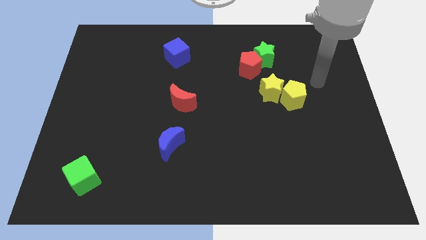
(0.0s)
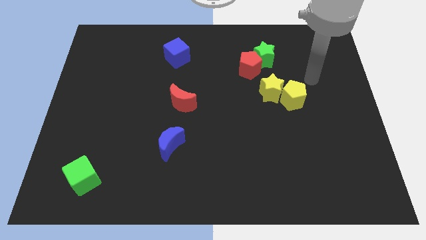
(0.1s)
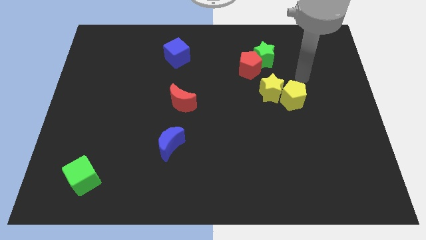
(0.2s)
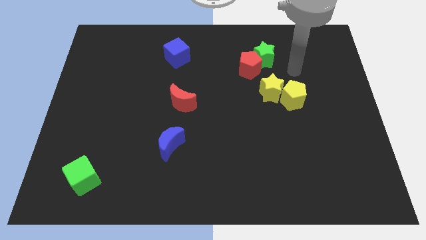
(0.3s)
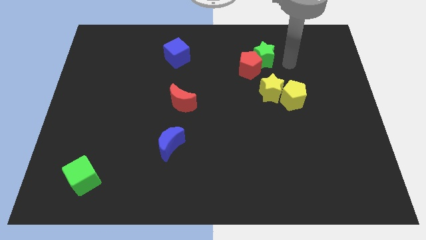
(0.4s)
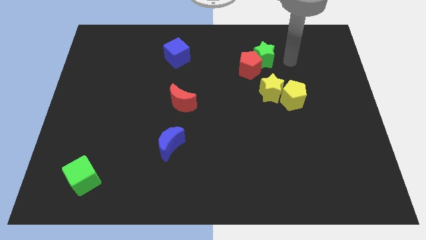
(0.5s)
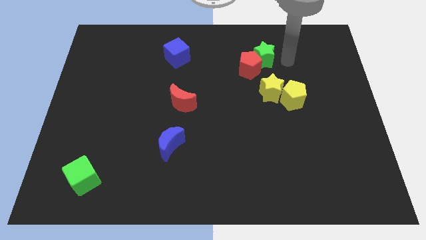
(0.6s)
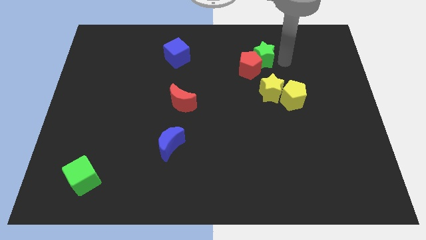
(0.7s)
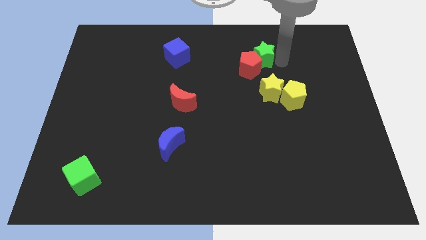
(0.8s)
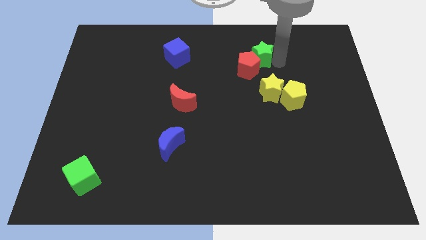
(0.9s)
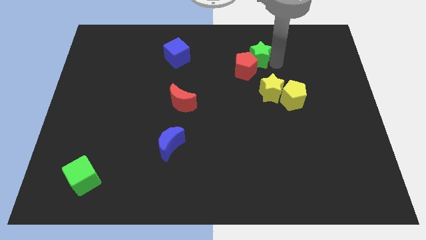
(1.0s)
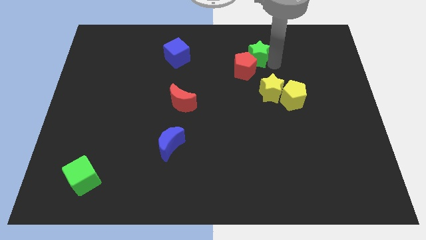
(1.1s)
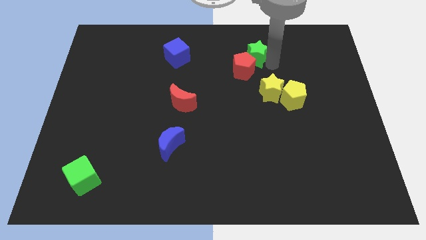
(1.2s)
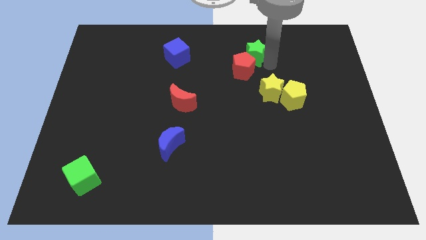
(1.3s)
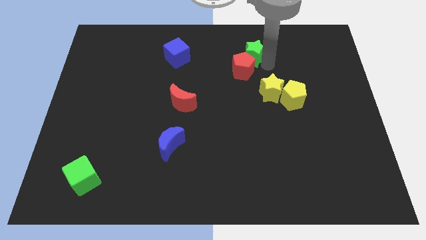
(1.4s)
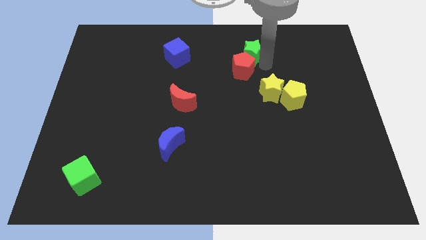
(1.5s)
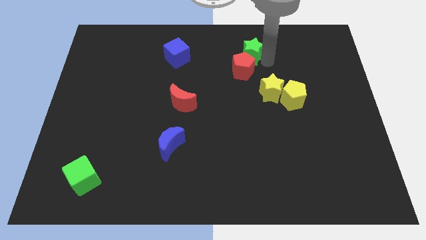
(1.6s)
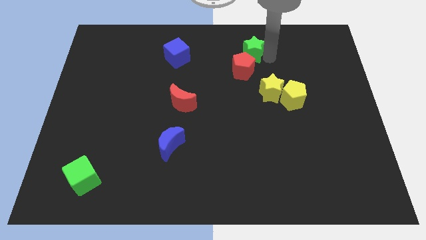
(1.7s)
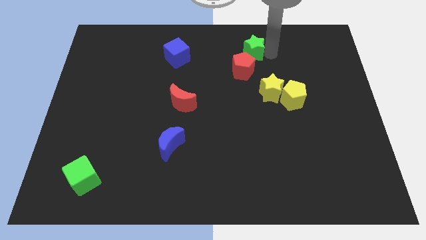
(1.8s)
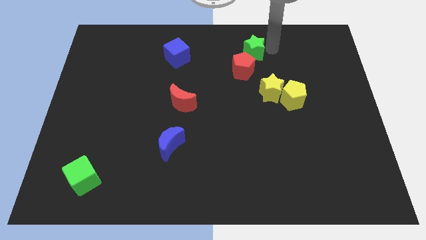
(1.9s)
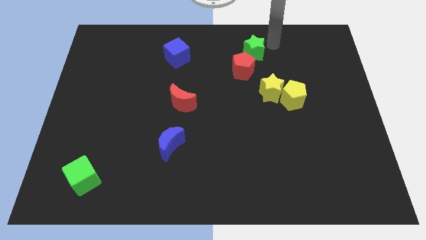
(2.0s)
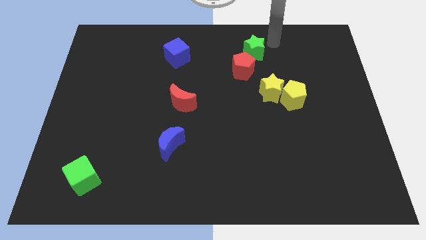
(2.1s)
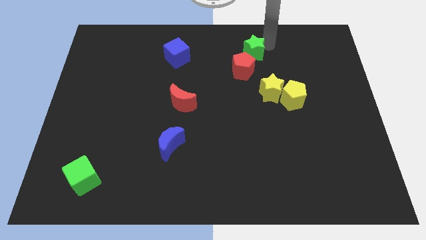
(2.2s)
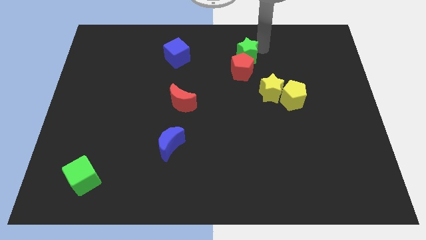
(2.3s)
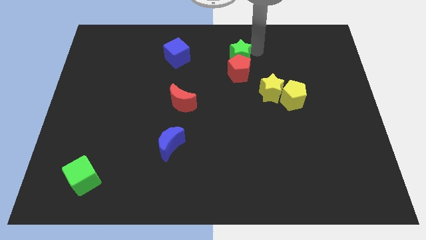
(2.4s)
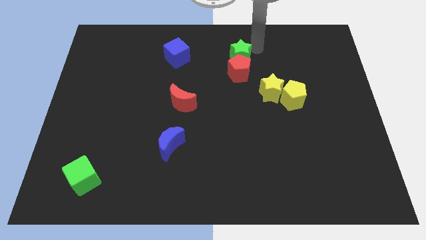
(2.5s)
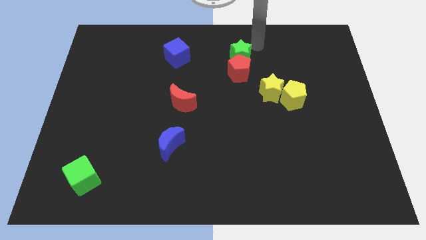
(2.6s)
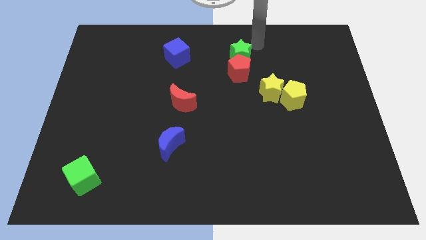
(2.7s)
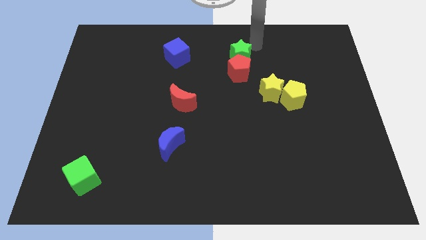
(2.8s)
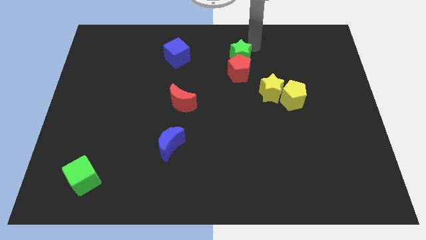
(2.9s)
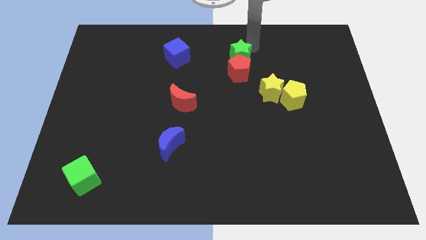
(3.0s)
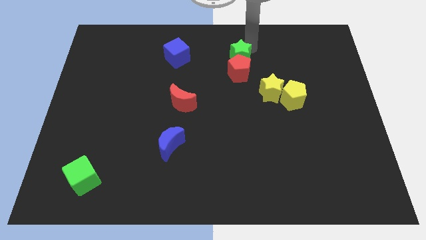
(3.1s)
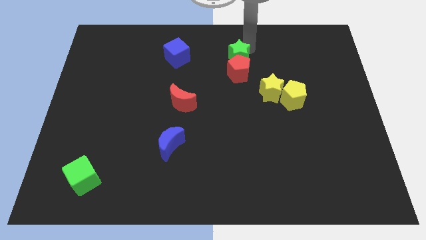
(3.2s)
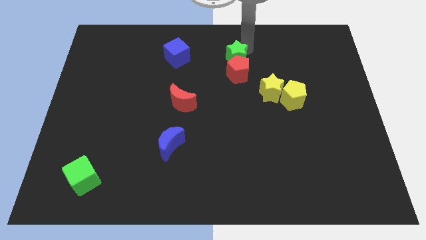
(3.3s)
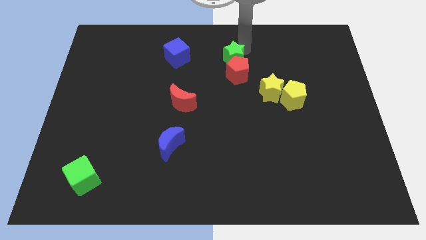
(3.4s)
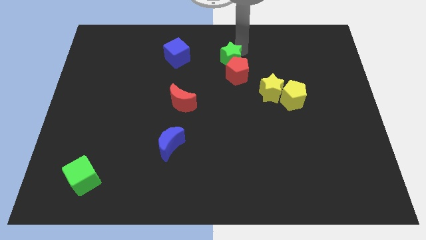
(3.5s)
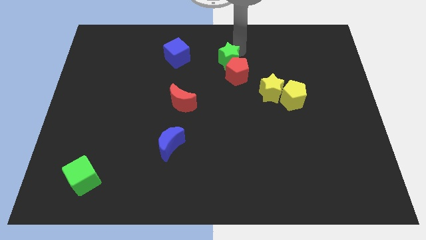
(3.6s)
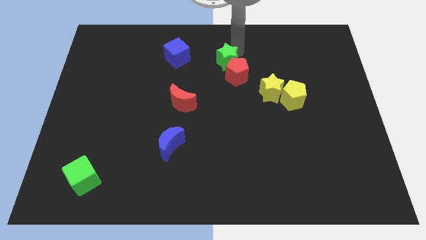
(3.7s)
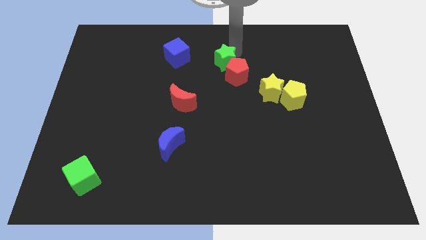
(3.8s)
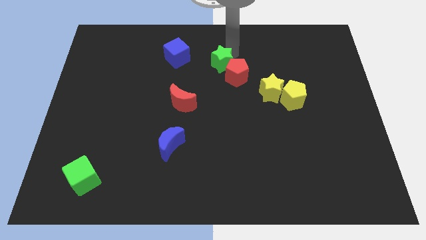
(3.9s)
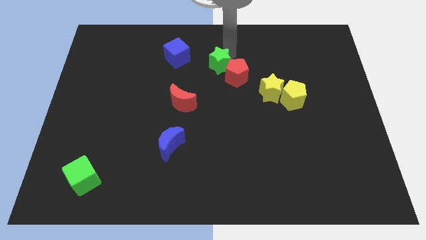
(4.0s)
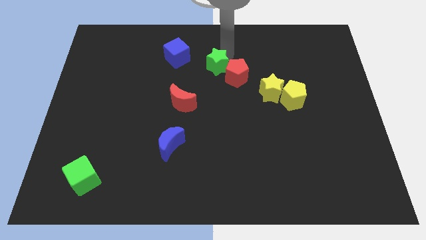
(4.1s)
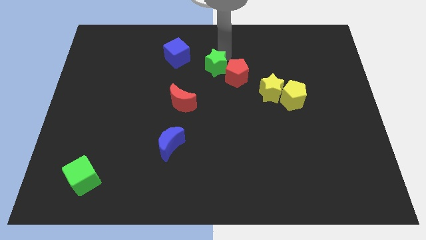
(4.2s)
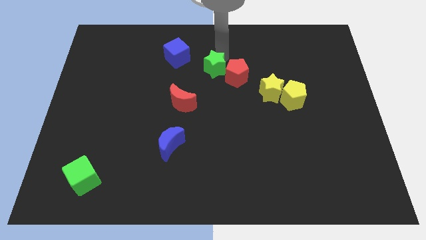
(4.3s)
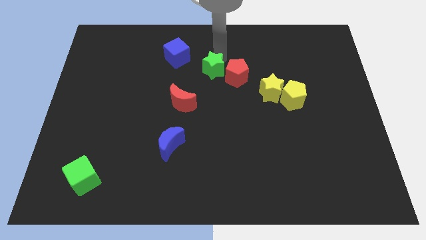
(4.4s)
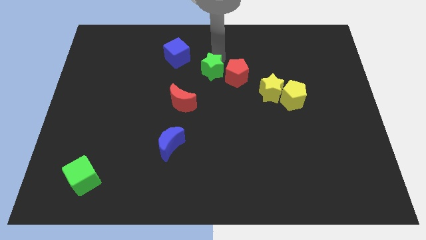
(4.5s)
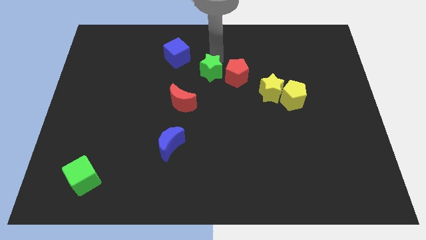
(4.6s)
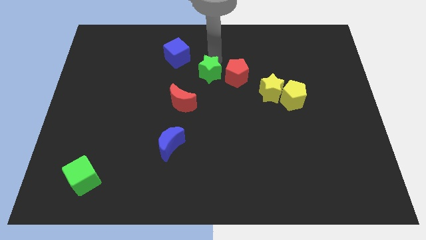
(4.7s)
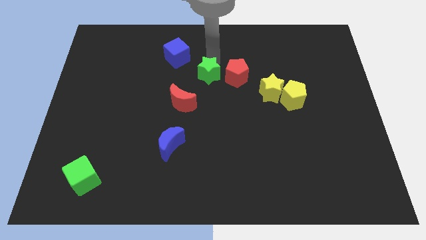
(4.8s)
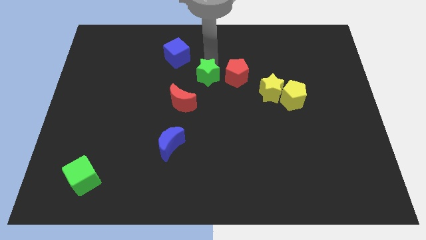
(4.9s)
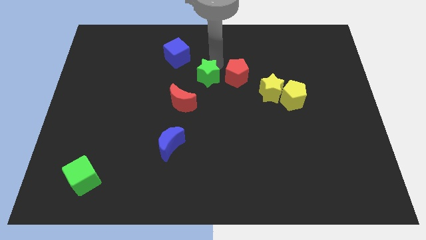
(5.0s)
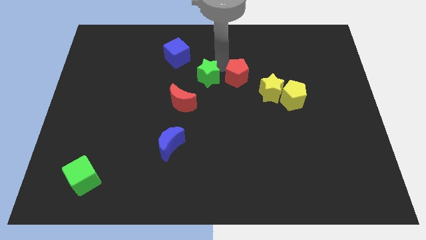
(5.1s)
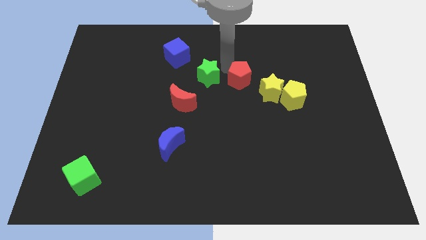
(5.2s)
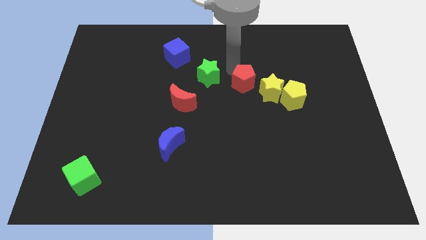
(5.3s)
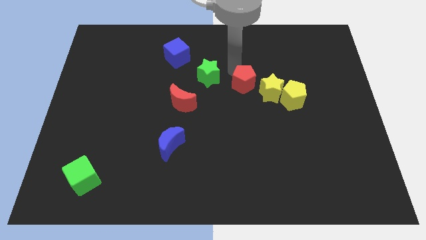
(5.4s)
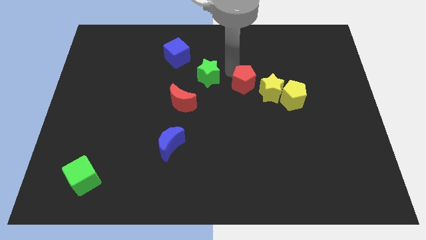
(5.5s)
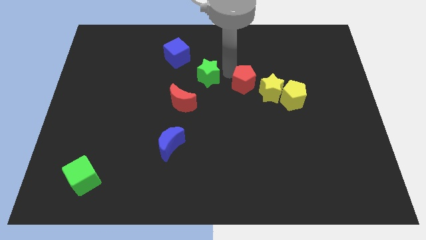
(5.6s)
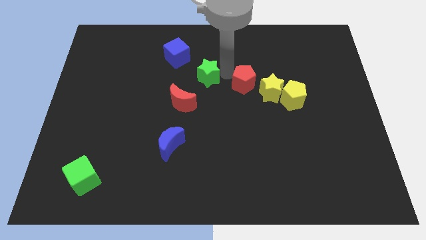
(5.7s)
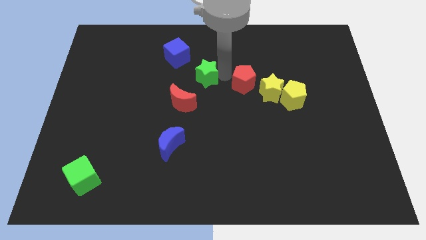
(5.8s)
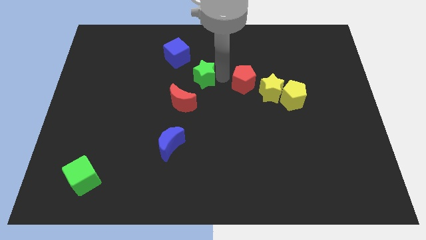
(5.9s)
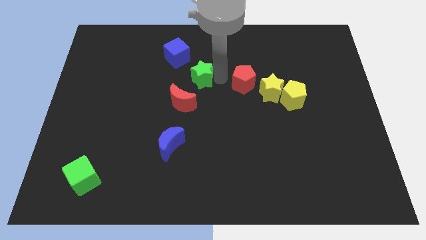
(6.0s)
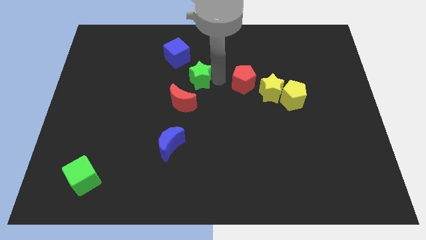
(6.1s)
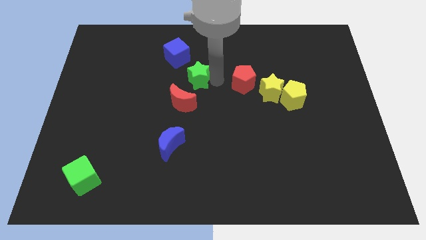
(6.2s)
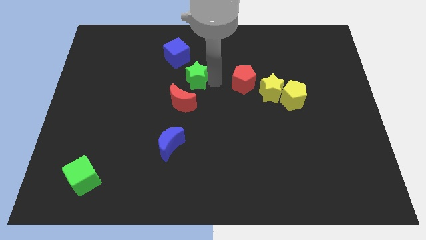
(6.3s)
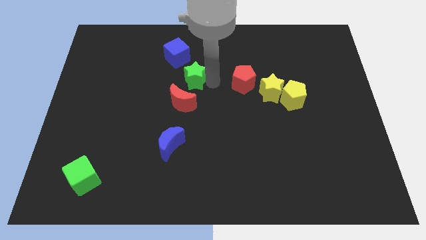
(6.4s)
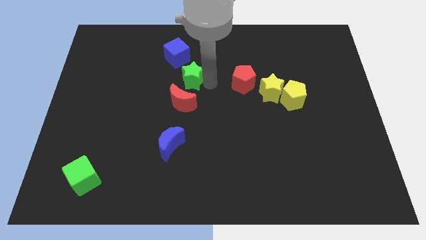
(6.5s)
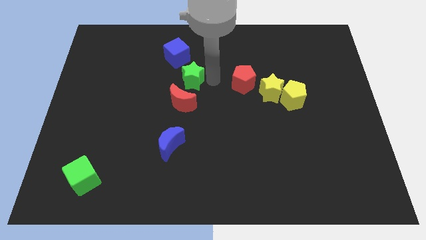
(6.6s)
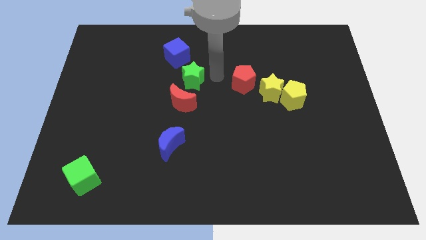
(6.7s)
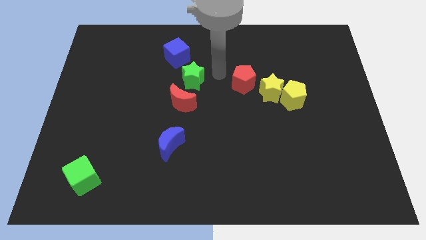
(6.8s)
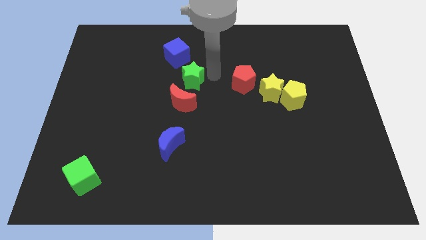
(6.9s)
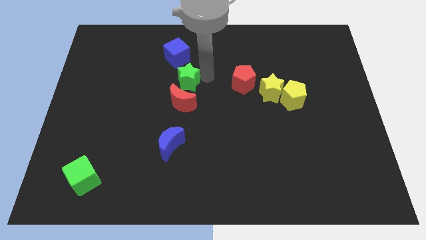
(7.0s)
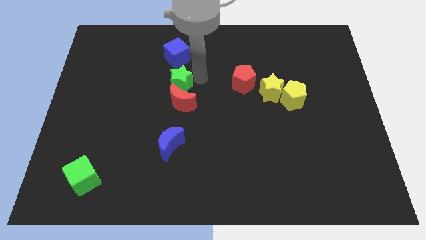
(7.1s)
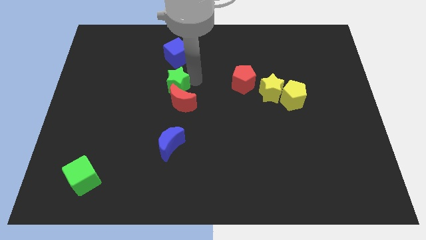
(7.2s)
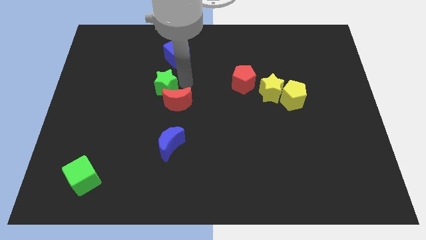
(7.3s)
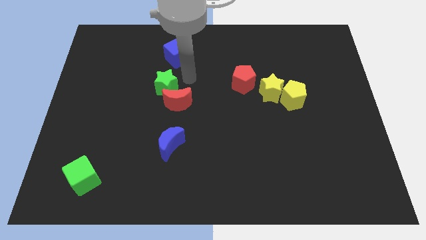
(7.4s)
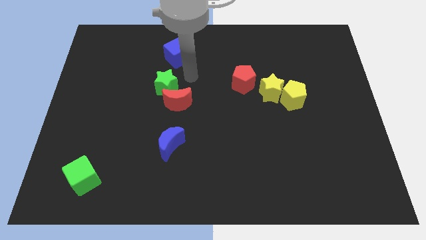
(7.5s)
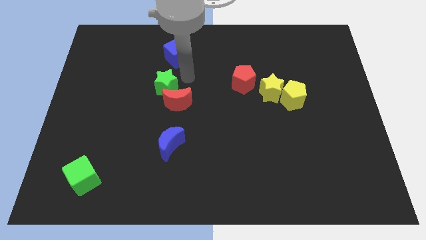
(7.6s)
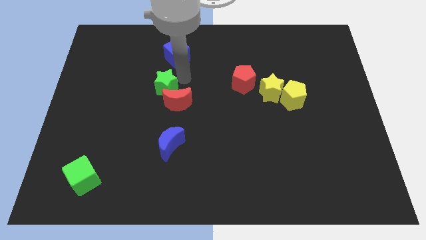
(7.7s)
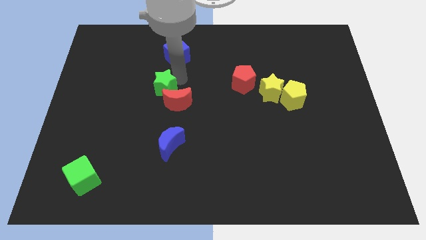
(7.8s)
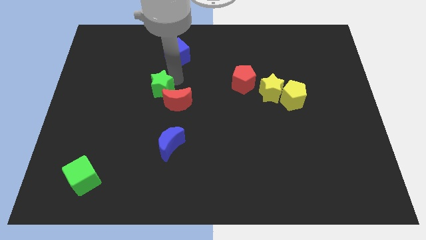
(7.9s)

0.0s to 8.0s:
put the green star to the left side of the red moon
